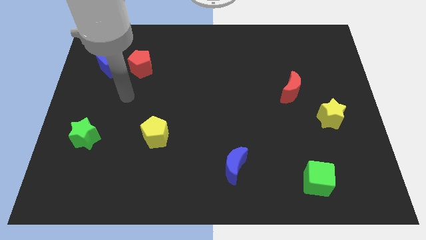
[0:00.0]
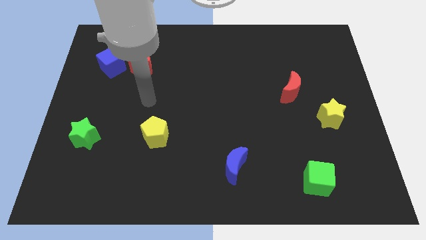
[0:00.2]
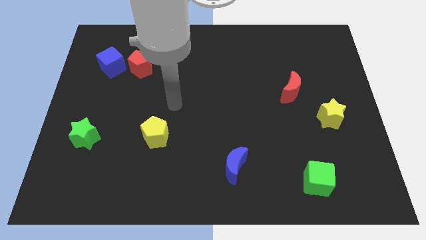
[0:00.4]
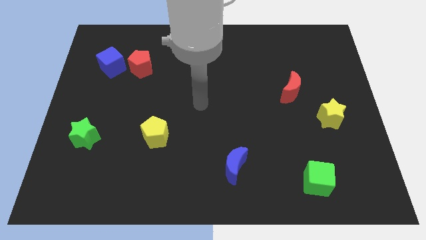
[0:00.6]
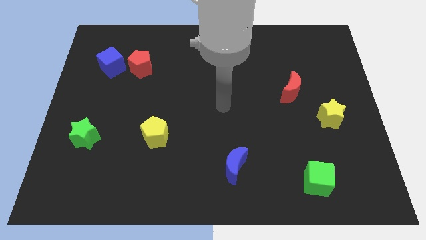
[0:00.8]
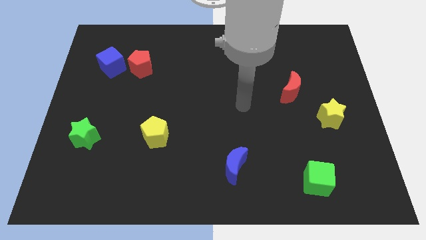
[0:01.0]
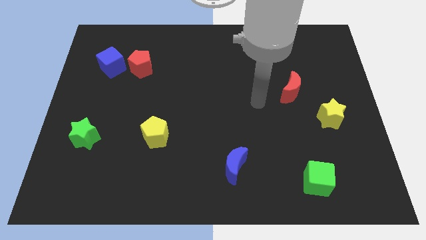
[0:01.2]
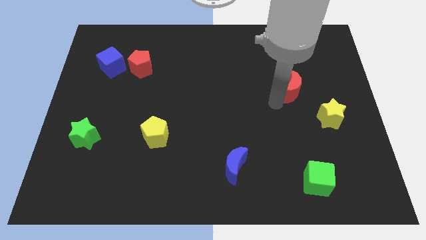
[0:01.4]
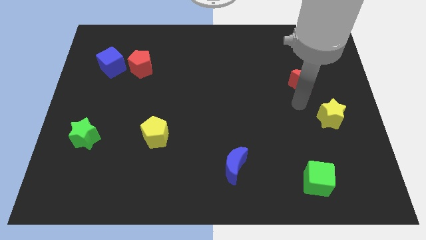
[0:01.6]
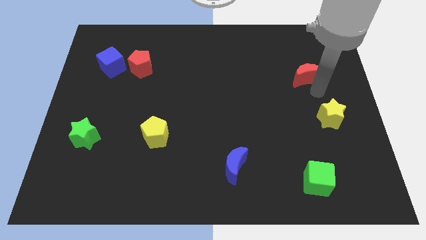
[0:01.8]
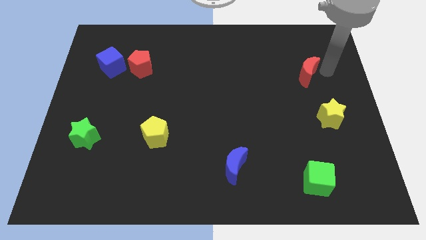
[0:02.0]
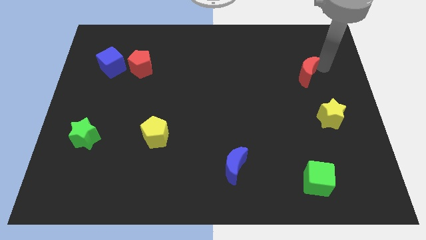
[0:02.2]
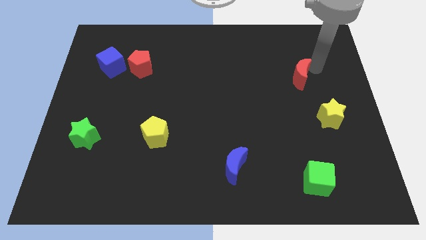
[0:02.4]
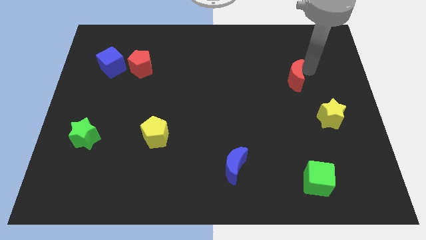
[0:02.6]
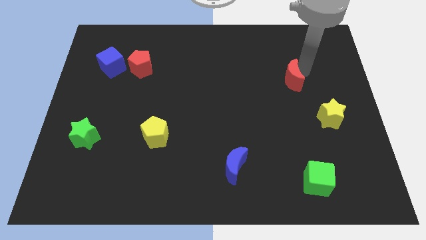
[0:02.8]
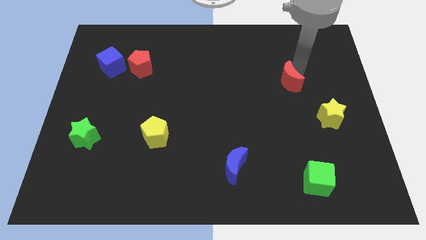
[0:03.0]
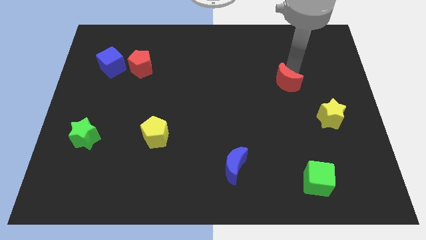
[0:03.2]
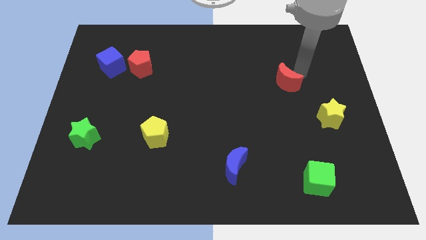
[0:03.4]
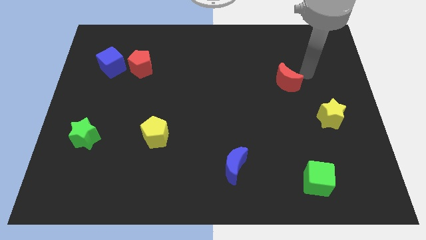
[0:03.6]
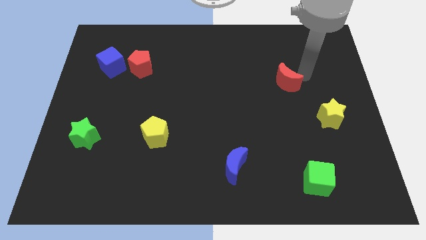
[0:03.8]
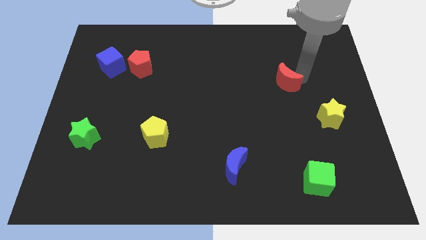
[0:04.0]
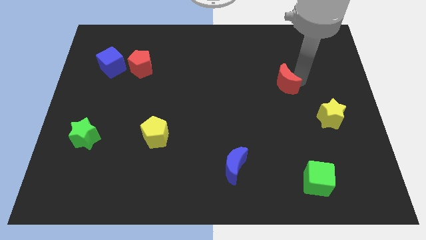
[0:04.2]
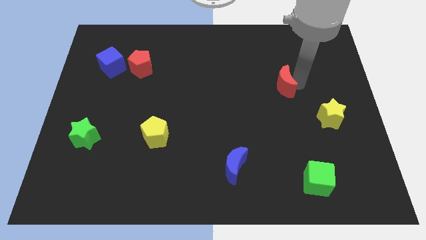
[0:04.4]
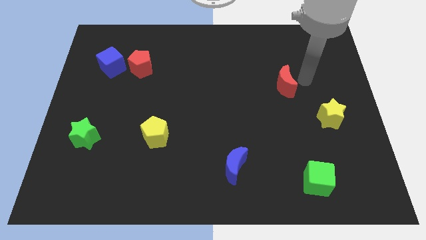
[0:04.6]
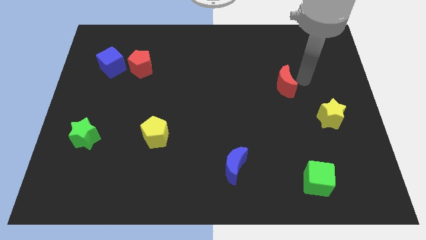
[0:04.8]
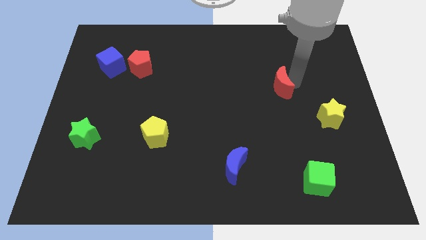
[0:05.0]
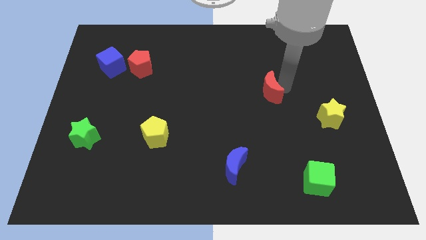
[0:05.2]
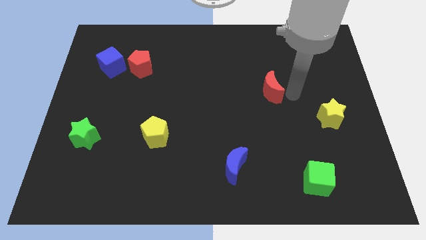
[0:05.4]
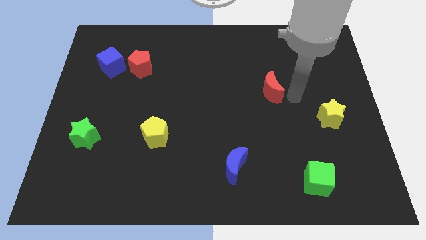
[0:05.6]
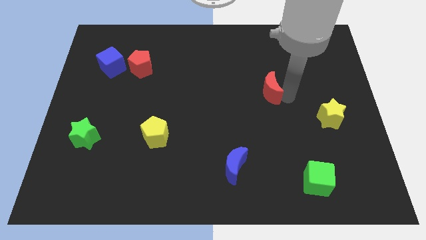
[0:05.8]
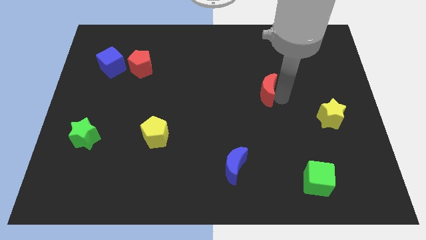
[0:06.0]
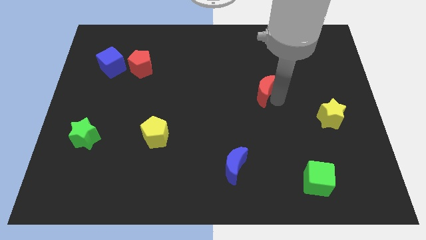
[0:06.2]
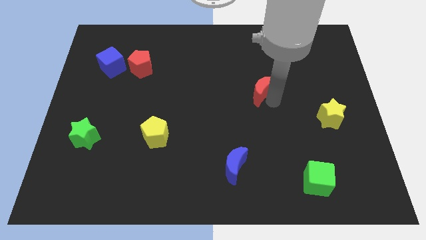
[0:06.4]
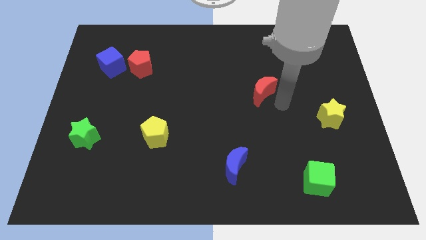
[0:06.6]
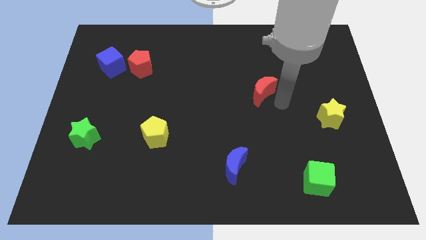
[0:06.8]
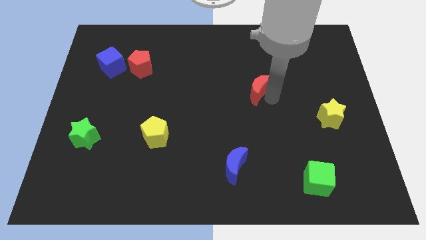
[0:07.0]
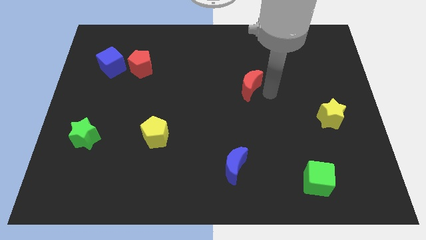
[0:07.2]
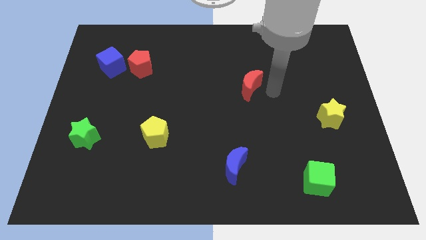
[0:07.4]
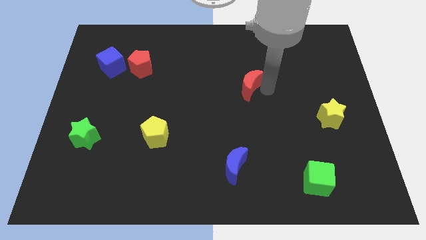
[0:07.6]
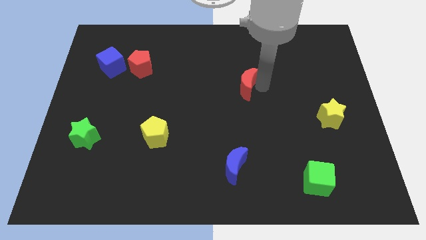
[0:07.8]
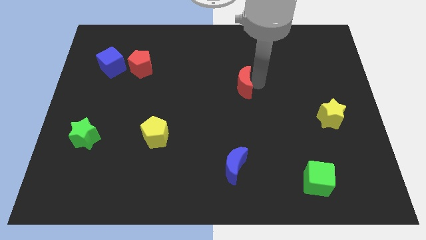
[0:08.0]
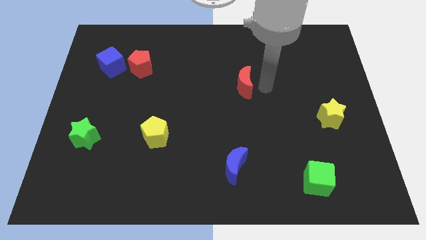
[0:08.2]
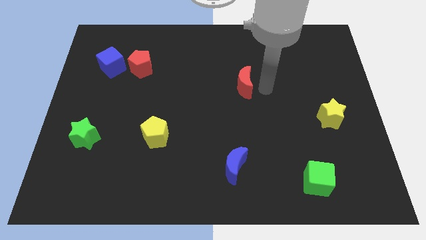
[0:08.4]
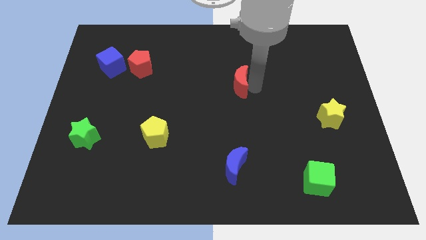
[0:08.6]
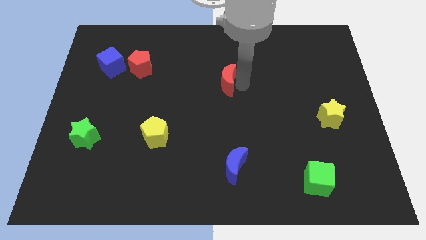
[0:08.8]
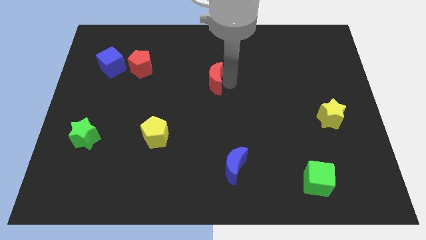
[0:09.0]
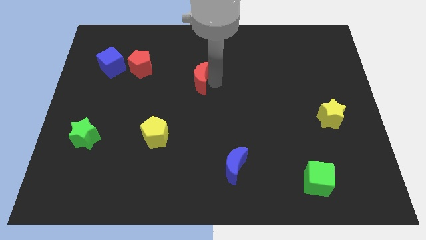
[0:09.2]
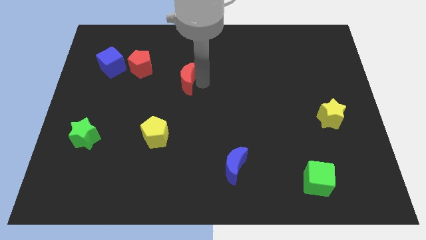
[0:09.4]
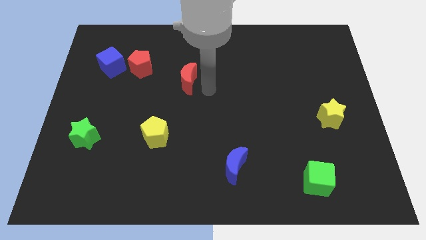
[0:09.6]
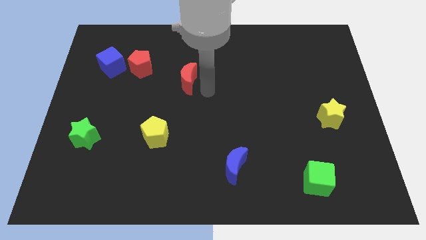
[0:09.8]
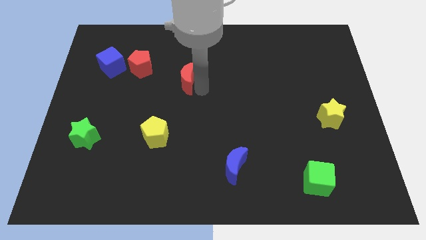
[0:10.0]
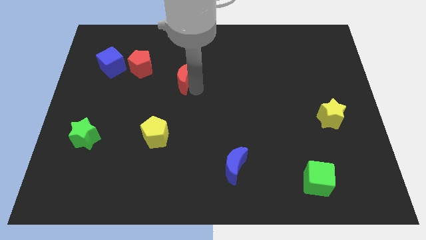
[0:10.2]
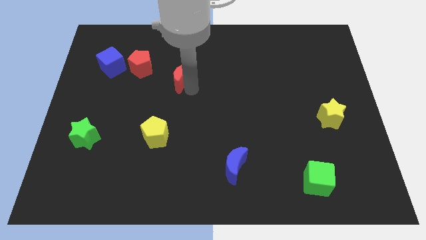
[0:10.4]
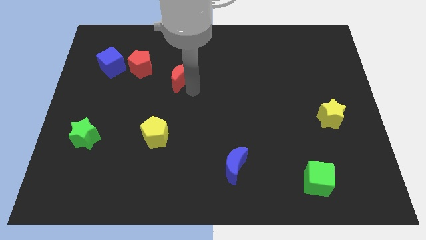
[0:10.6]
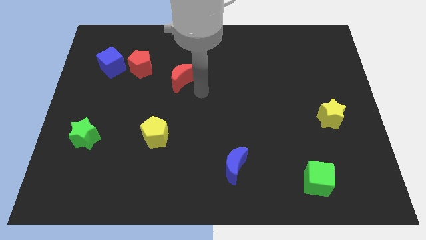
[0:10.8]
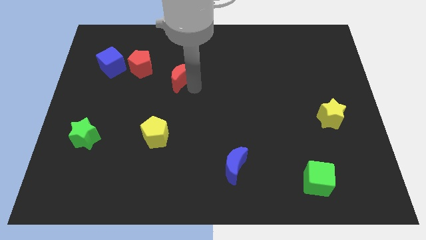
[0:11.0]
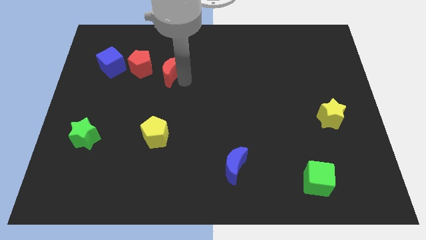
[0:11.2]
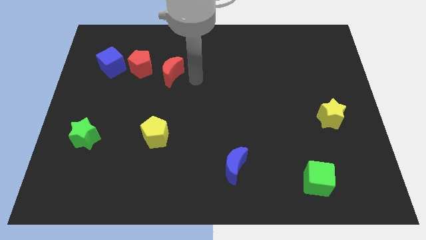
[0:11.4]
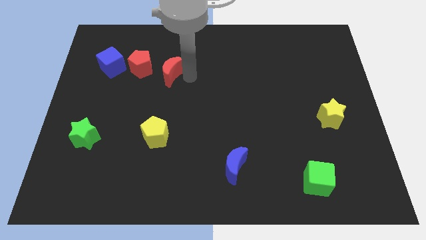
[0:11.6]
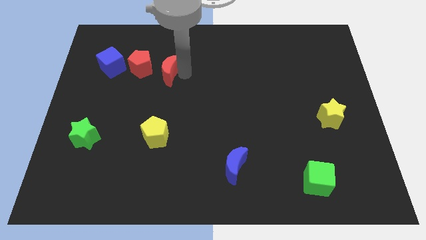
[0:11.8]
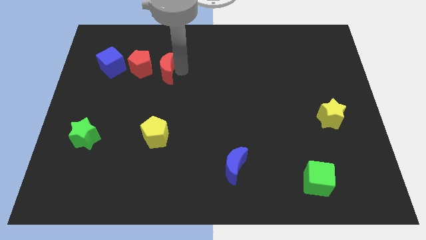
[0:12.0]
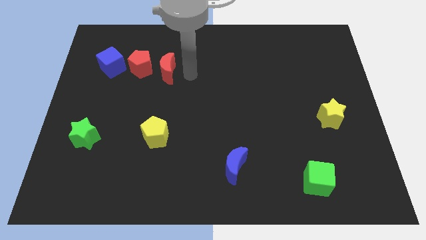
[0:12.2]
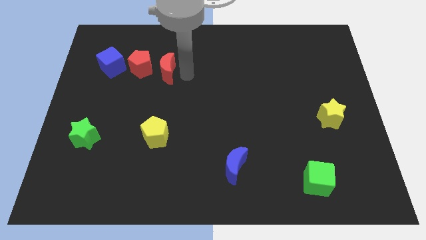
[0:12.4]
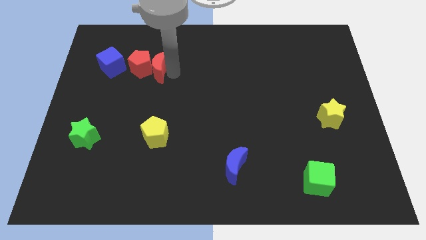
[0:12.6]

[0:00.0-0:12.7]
slide the red moon towards the red pentagon

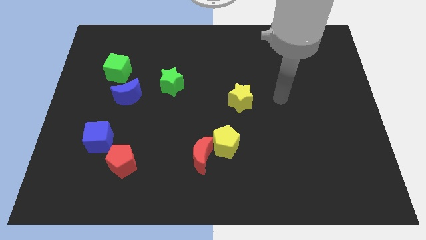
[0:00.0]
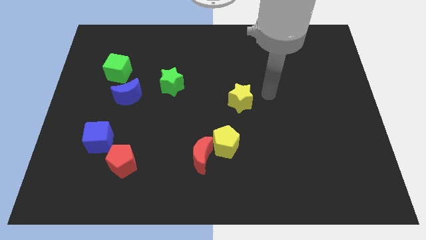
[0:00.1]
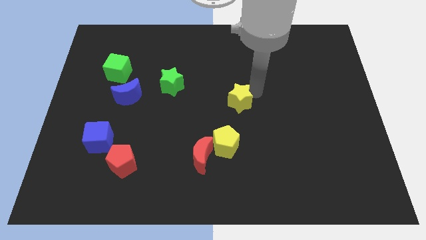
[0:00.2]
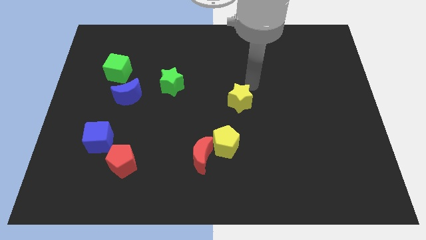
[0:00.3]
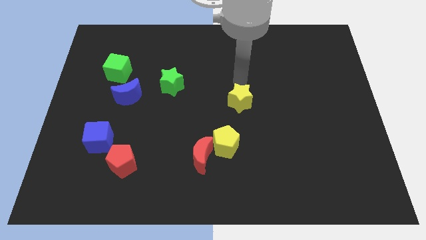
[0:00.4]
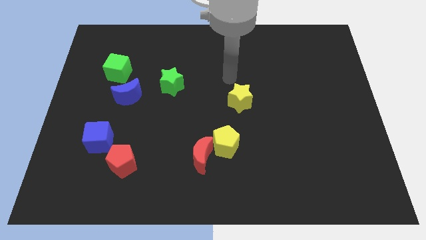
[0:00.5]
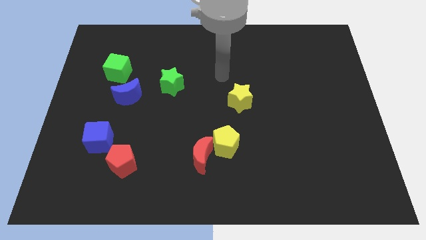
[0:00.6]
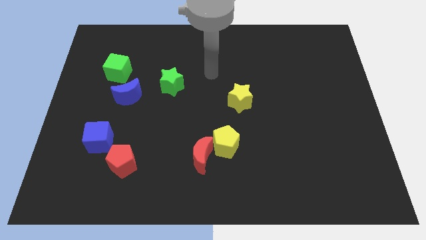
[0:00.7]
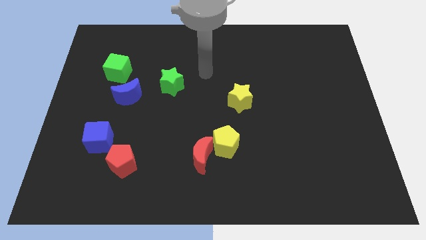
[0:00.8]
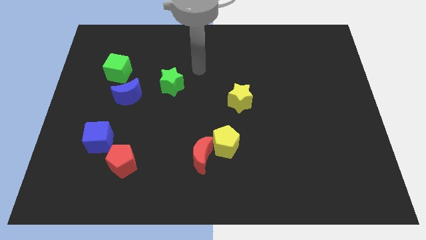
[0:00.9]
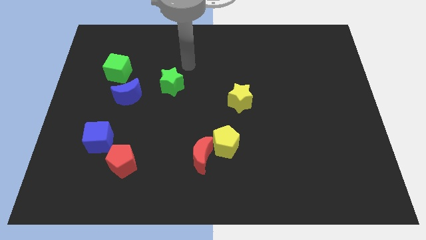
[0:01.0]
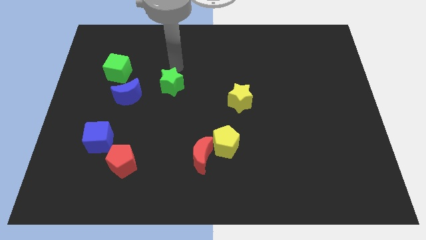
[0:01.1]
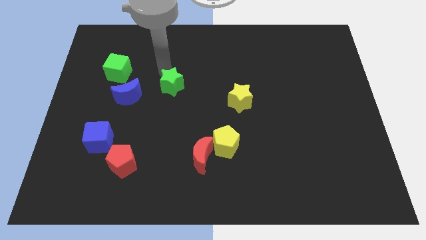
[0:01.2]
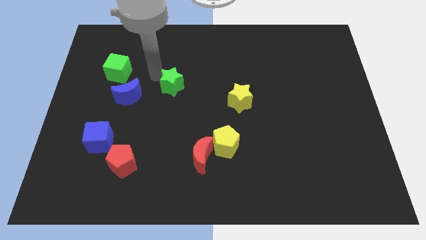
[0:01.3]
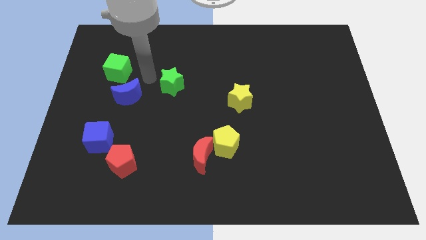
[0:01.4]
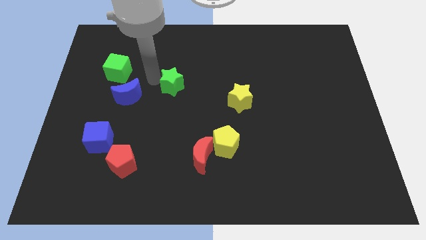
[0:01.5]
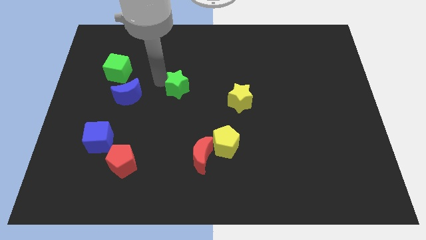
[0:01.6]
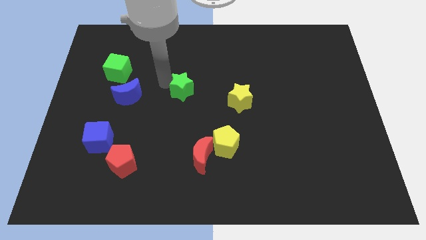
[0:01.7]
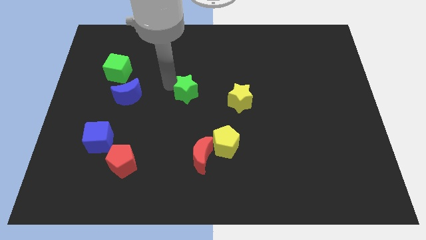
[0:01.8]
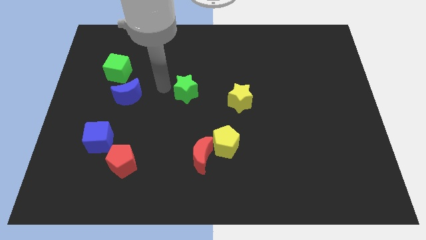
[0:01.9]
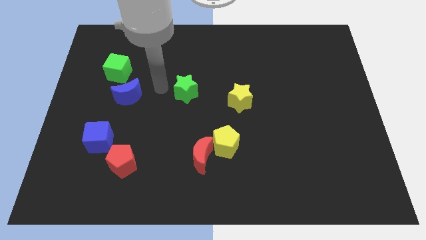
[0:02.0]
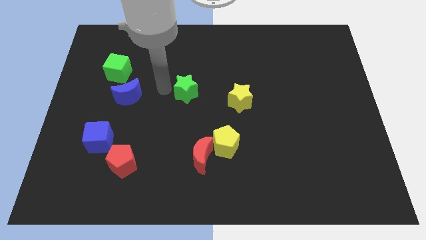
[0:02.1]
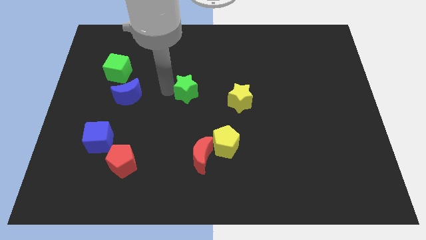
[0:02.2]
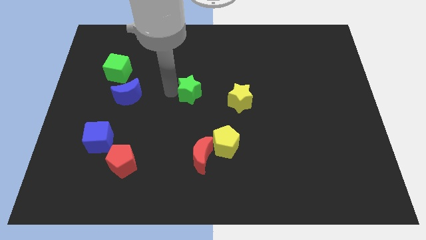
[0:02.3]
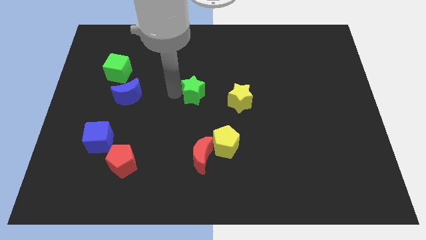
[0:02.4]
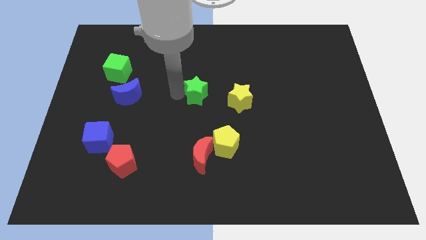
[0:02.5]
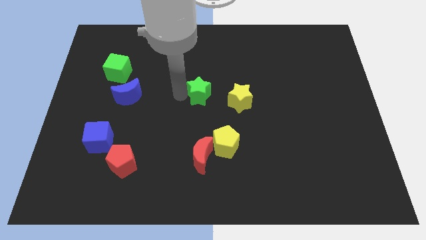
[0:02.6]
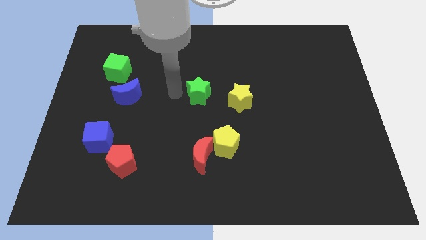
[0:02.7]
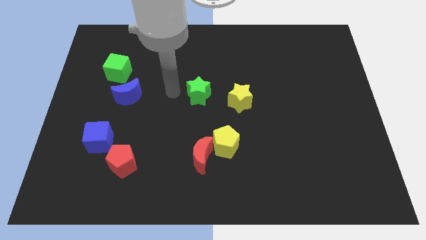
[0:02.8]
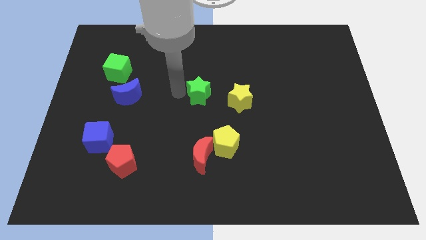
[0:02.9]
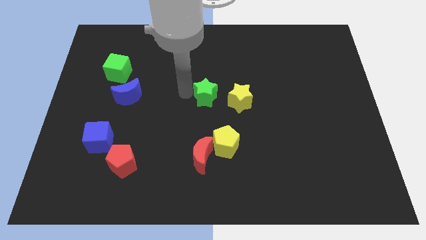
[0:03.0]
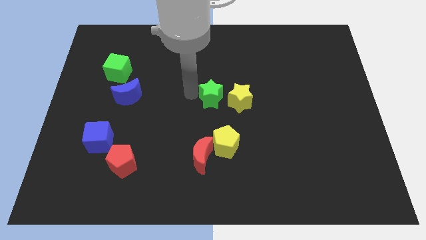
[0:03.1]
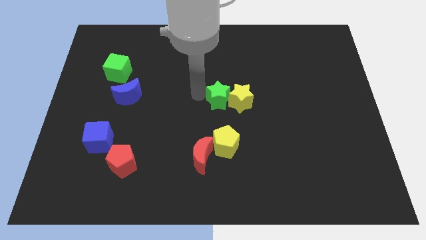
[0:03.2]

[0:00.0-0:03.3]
slide the green star next to the yellow star
